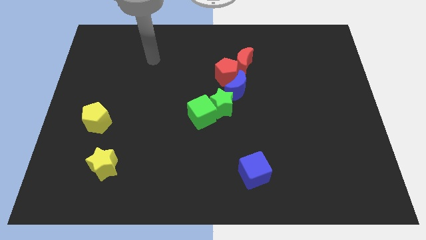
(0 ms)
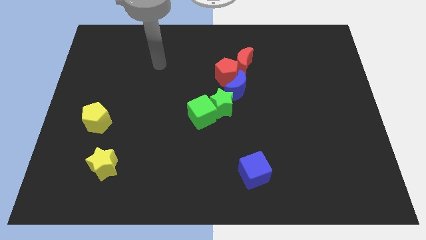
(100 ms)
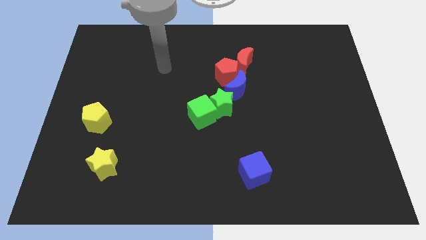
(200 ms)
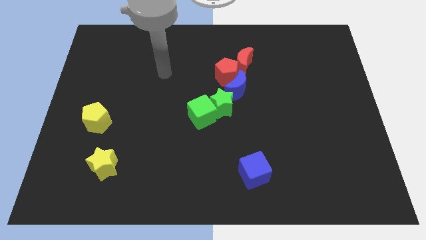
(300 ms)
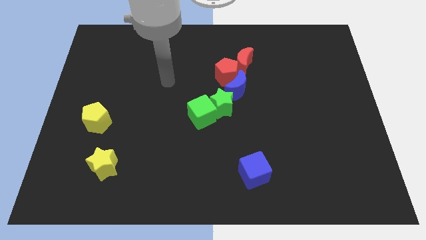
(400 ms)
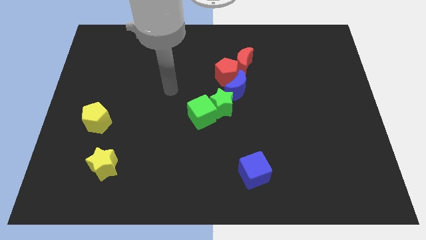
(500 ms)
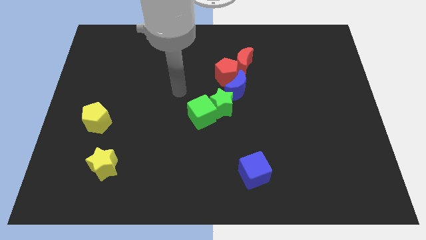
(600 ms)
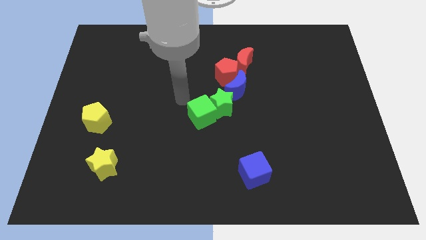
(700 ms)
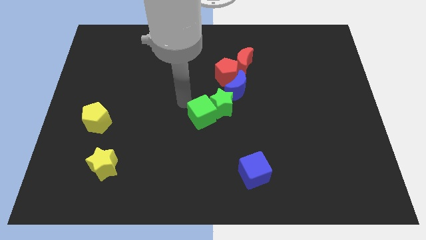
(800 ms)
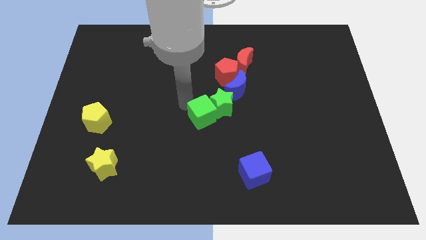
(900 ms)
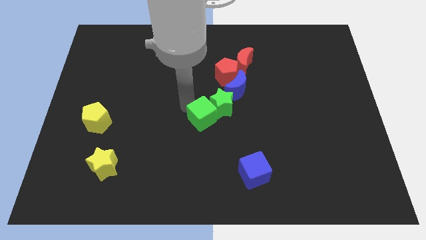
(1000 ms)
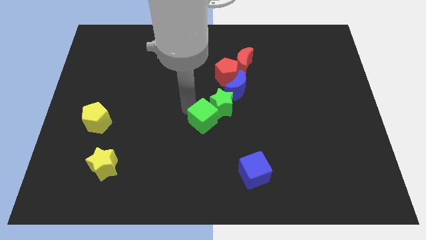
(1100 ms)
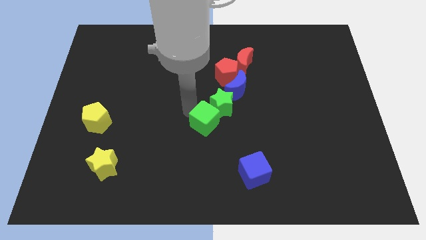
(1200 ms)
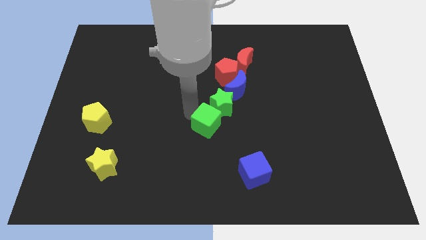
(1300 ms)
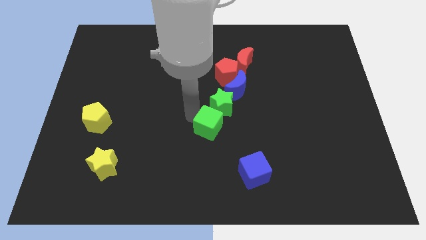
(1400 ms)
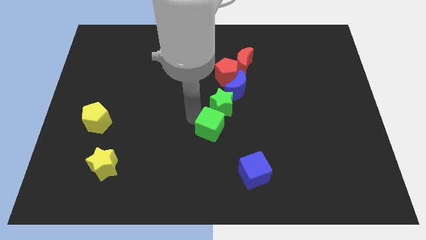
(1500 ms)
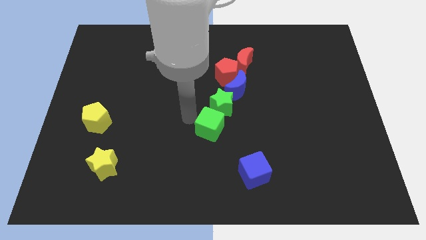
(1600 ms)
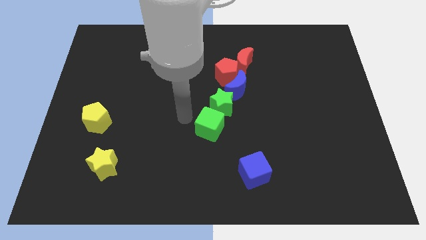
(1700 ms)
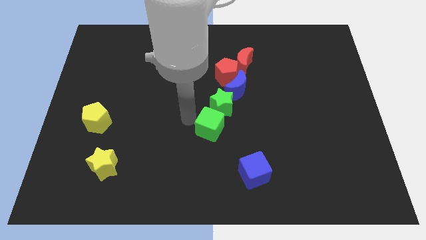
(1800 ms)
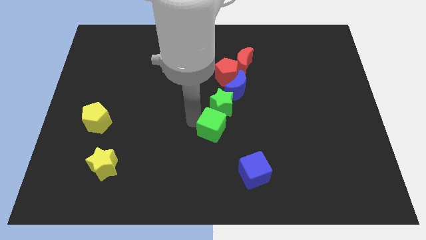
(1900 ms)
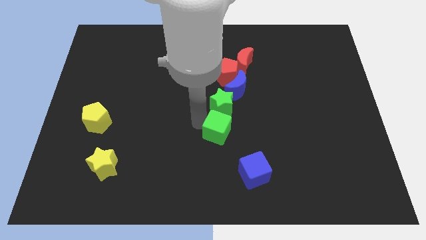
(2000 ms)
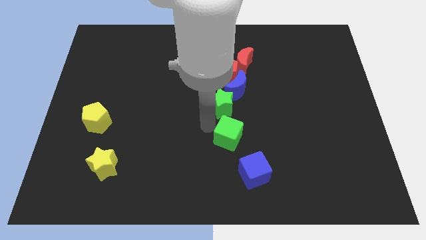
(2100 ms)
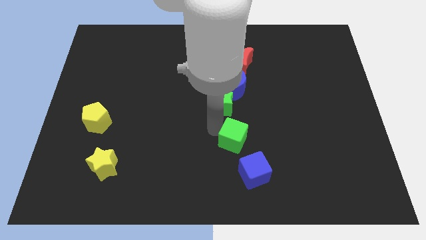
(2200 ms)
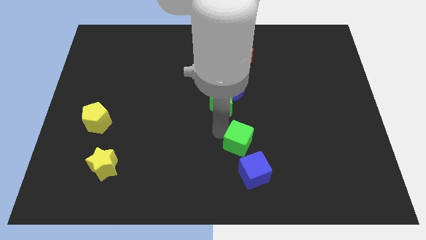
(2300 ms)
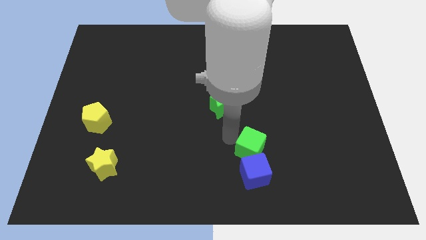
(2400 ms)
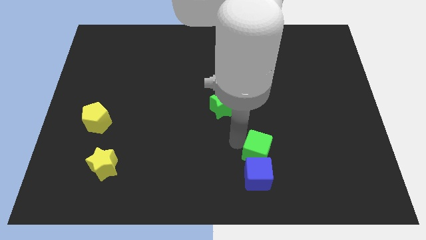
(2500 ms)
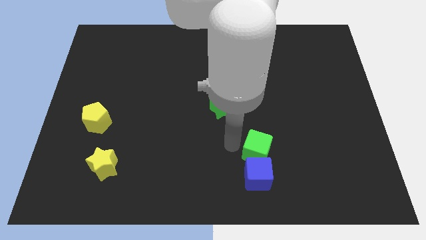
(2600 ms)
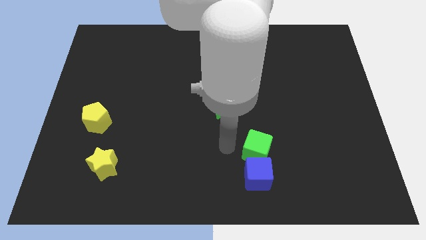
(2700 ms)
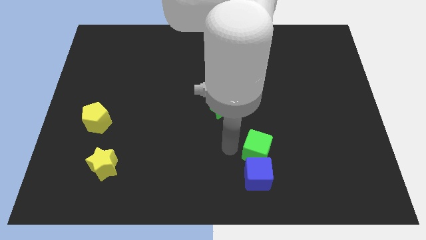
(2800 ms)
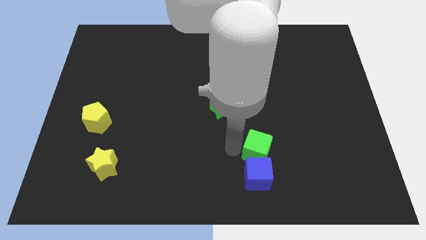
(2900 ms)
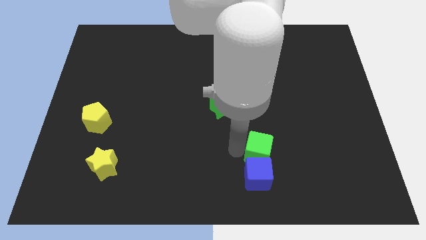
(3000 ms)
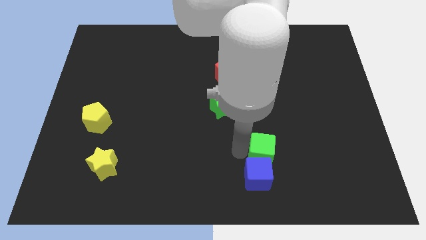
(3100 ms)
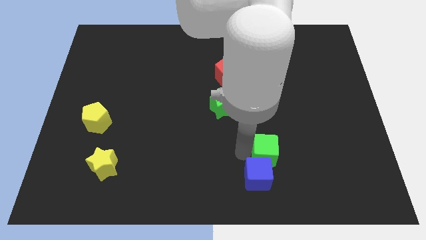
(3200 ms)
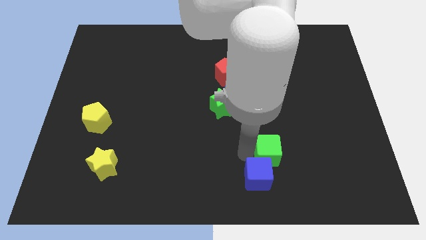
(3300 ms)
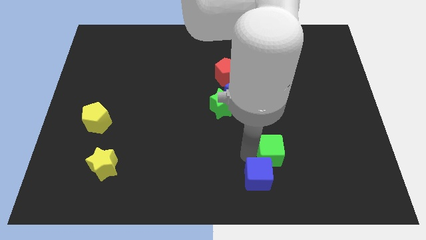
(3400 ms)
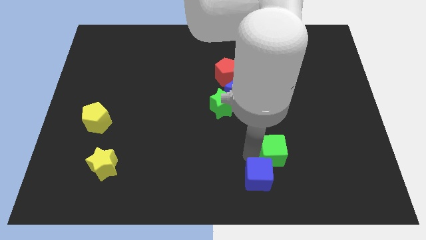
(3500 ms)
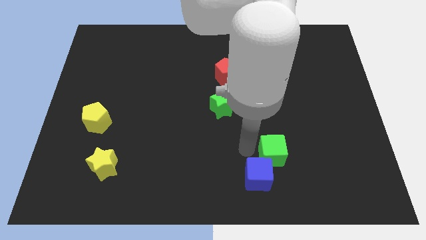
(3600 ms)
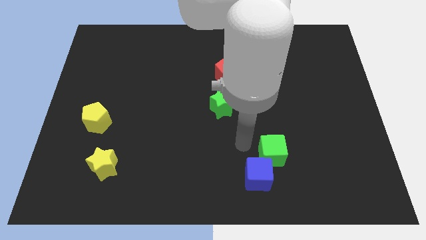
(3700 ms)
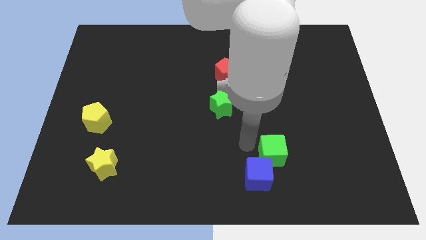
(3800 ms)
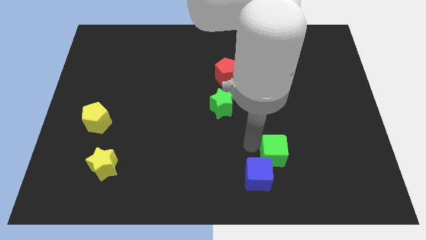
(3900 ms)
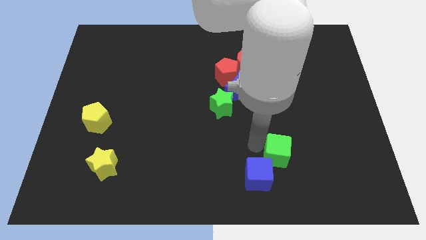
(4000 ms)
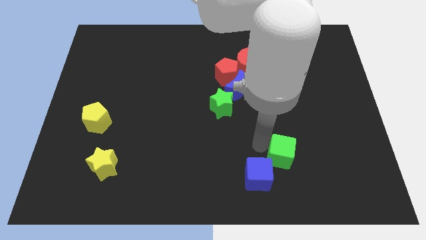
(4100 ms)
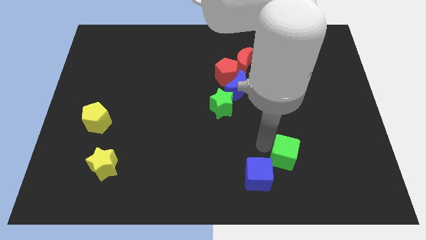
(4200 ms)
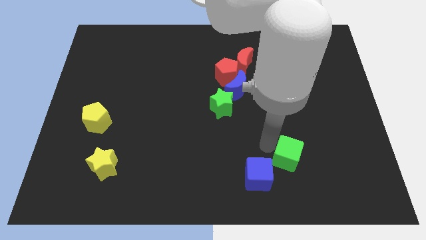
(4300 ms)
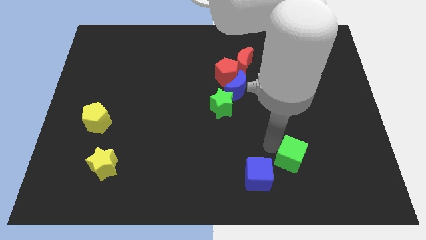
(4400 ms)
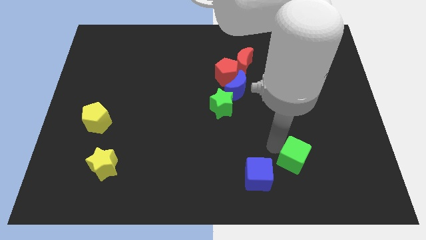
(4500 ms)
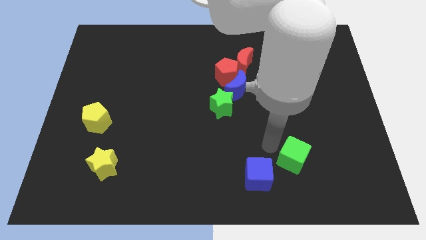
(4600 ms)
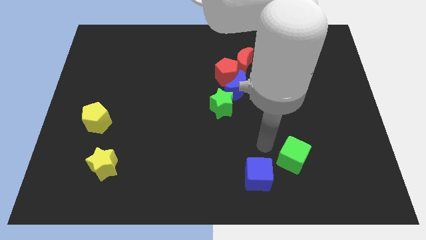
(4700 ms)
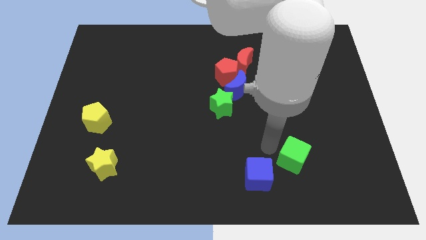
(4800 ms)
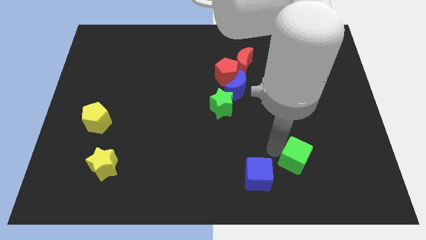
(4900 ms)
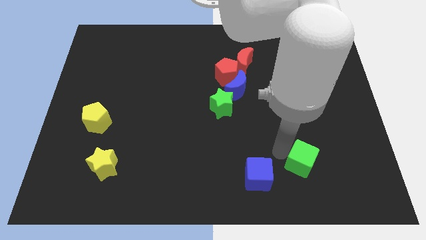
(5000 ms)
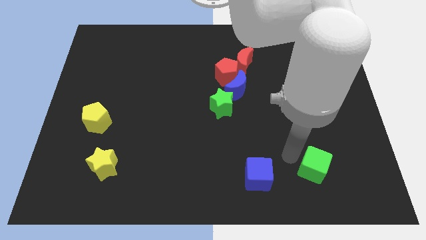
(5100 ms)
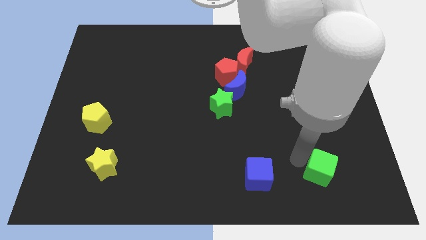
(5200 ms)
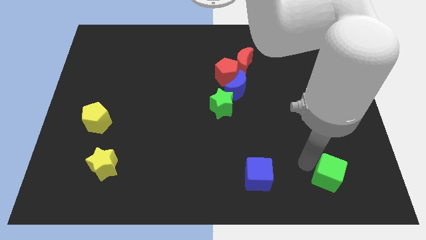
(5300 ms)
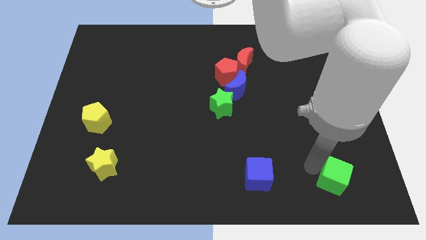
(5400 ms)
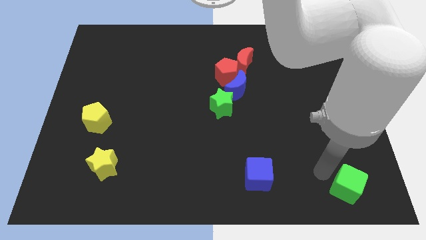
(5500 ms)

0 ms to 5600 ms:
move the green cube to the lower right corner
